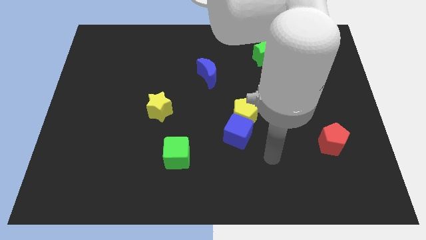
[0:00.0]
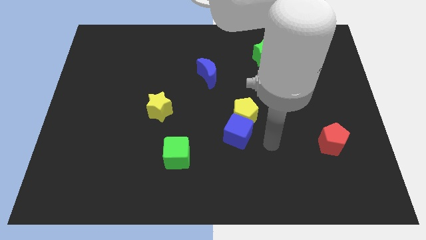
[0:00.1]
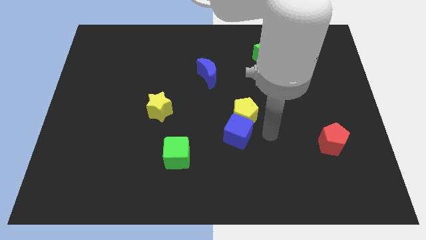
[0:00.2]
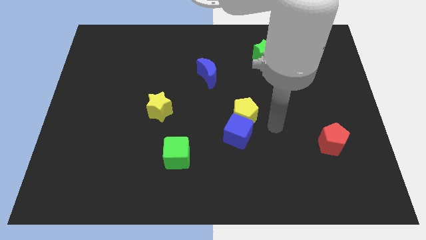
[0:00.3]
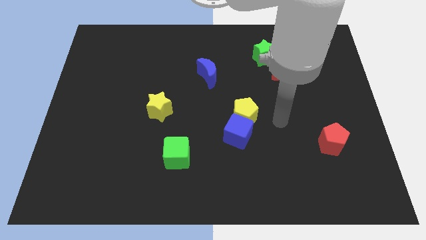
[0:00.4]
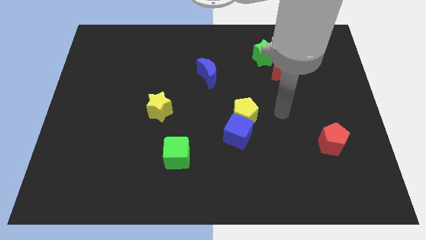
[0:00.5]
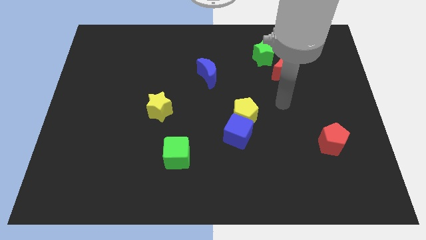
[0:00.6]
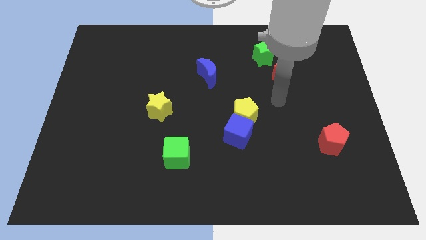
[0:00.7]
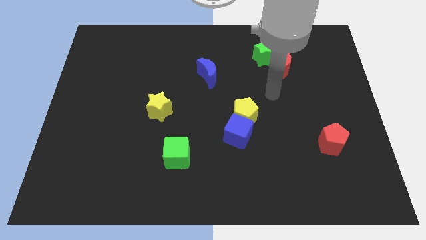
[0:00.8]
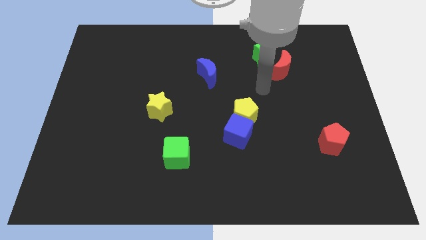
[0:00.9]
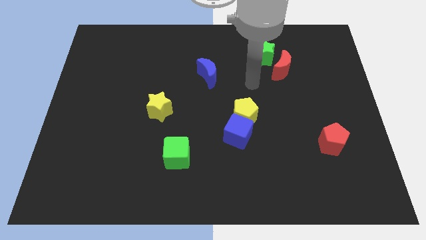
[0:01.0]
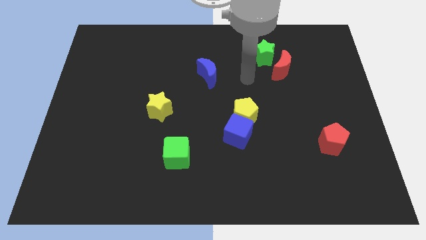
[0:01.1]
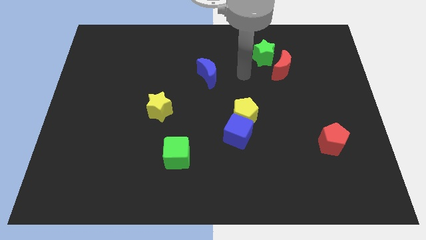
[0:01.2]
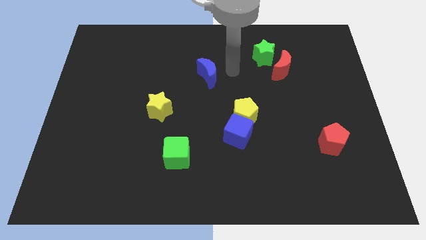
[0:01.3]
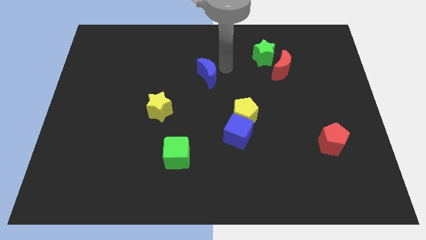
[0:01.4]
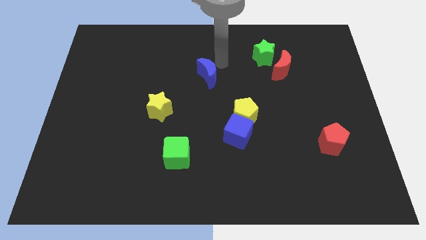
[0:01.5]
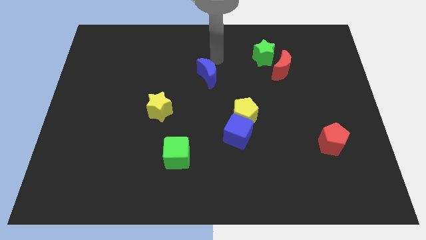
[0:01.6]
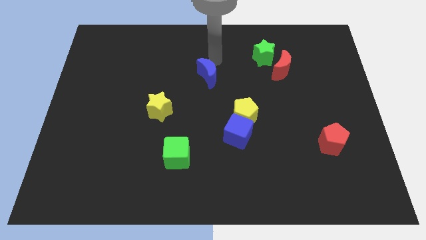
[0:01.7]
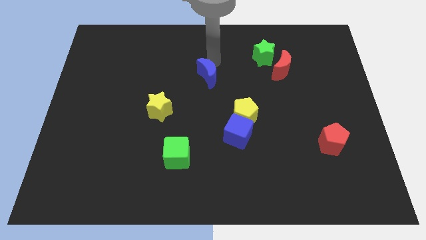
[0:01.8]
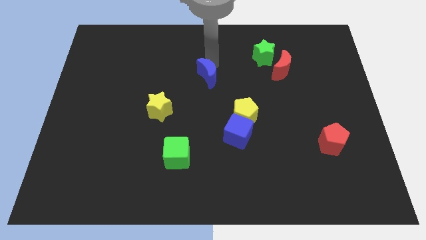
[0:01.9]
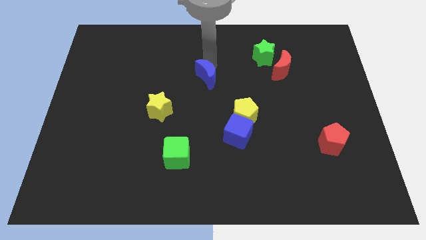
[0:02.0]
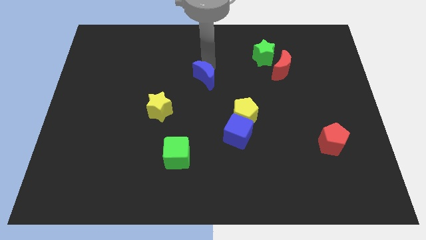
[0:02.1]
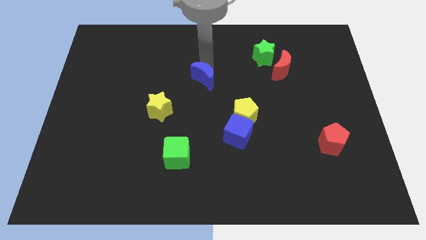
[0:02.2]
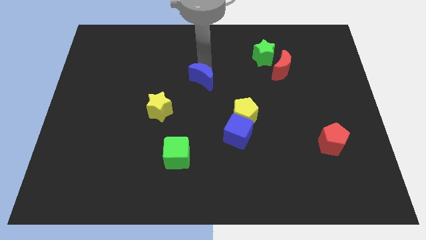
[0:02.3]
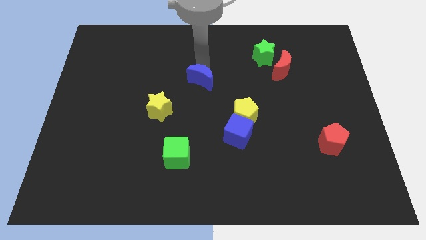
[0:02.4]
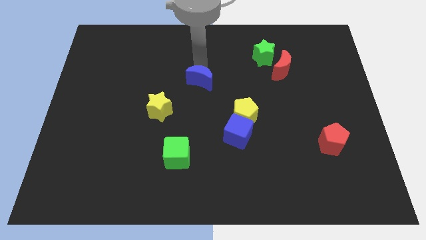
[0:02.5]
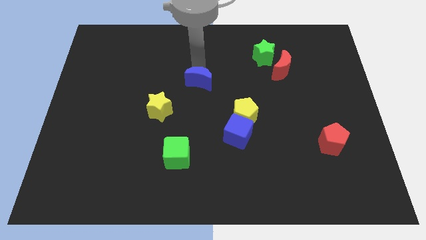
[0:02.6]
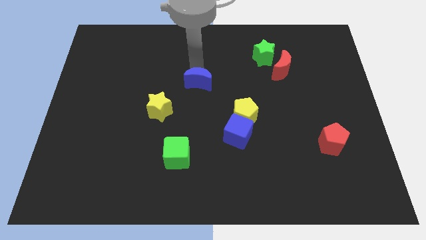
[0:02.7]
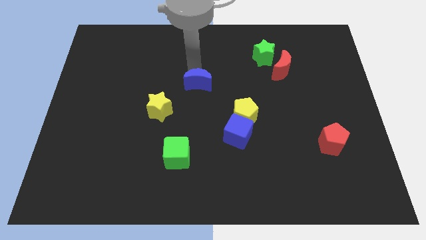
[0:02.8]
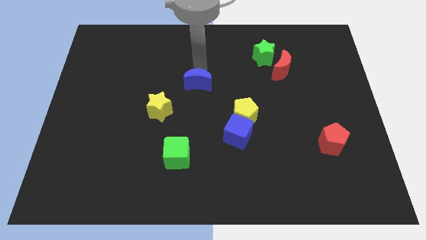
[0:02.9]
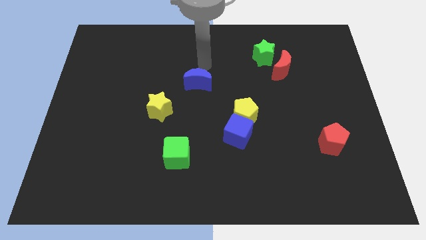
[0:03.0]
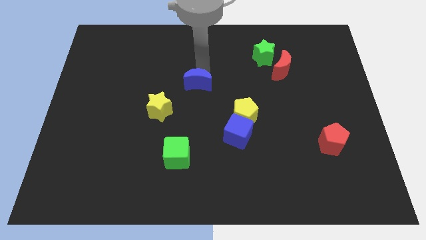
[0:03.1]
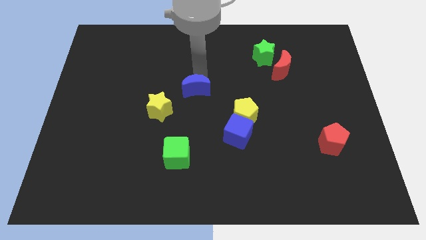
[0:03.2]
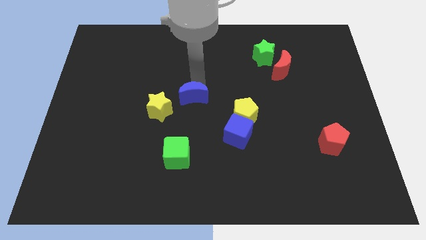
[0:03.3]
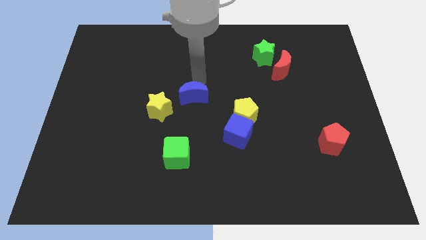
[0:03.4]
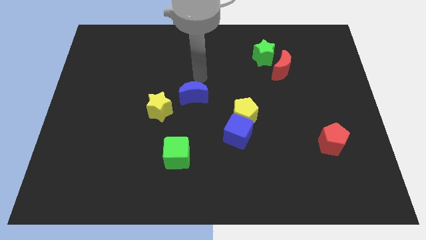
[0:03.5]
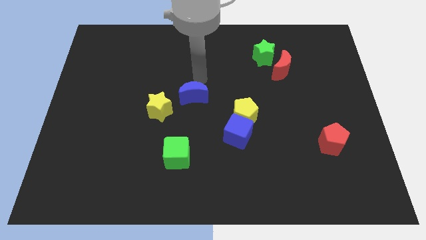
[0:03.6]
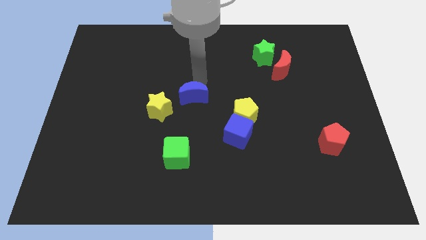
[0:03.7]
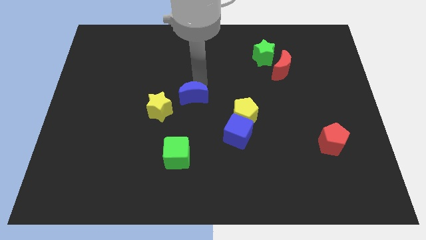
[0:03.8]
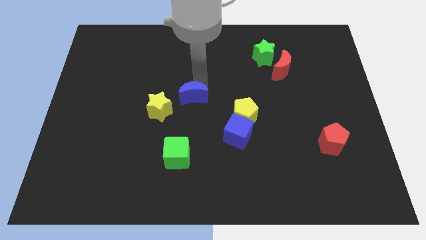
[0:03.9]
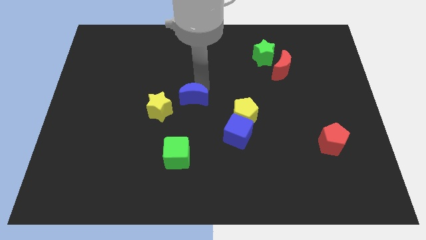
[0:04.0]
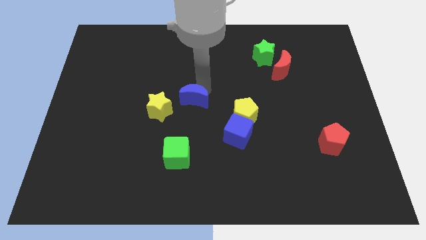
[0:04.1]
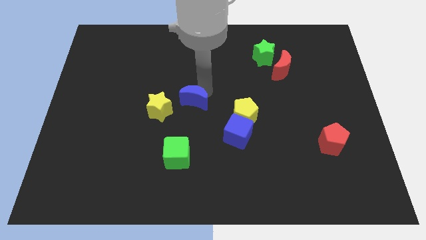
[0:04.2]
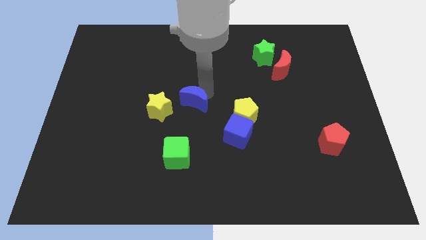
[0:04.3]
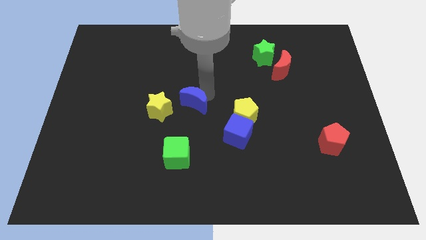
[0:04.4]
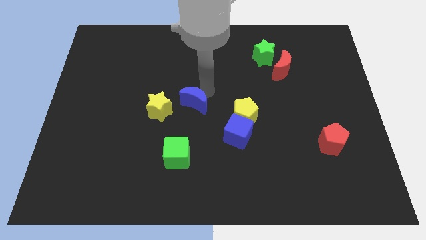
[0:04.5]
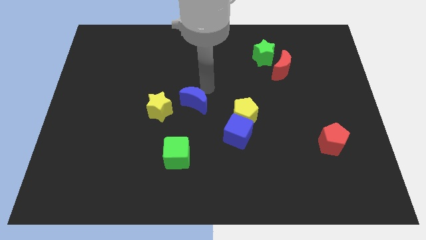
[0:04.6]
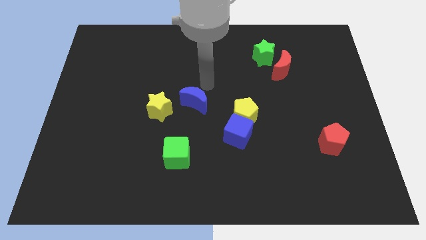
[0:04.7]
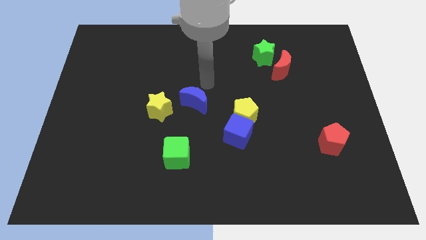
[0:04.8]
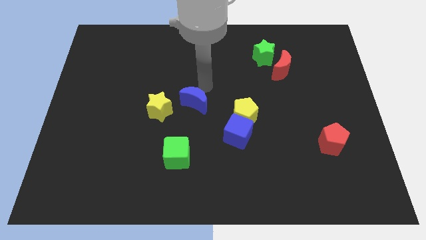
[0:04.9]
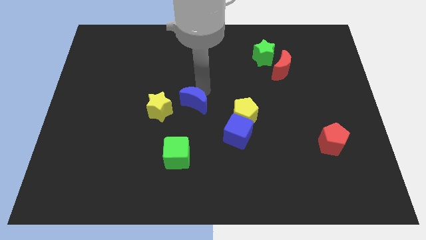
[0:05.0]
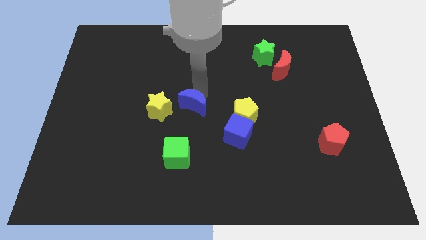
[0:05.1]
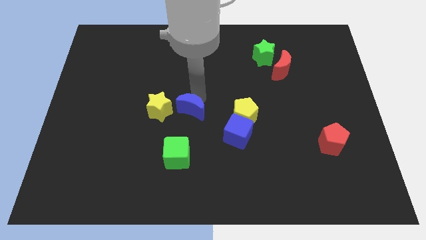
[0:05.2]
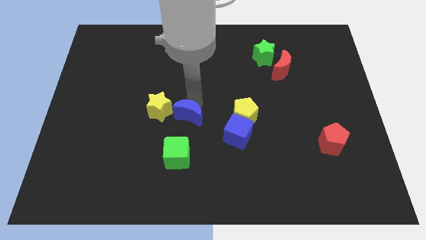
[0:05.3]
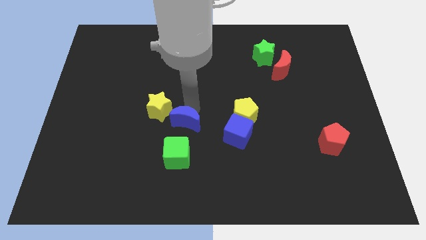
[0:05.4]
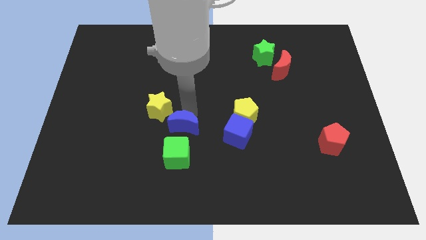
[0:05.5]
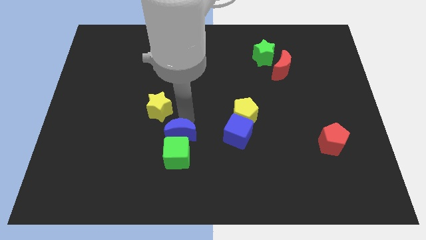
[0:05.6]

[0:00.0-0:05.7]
push the blue moon next to the green cube

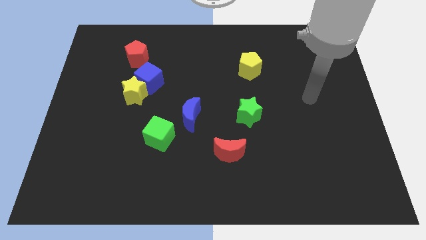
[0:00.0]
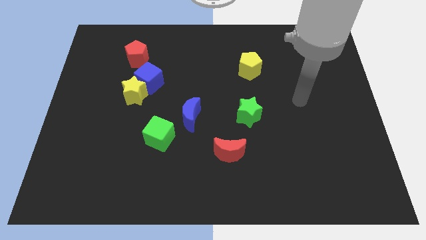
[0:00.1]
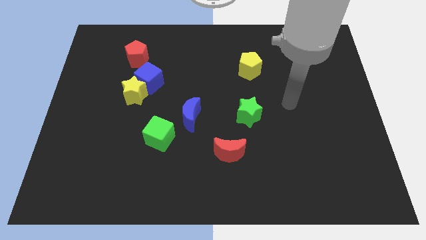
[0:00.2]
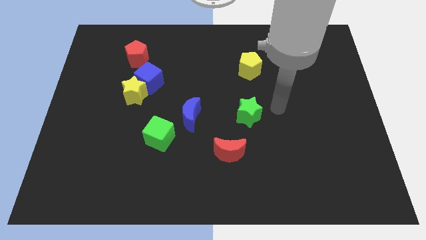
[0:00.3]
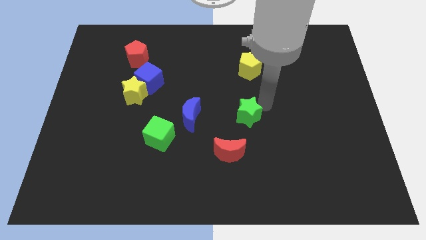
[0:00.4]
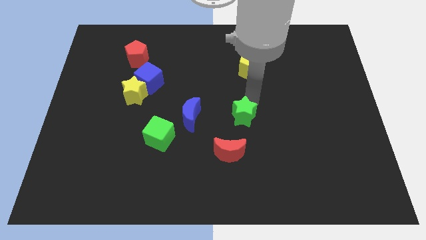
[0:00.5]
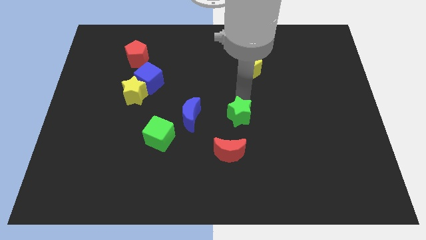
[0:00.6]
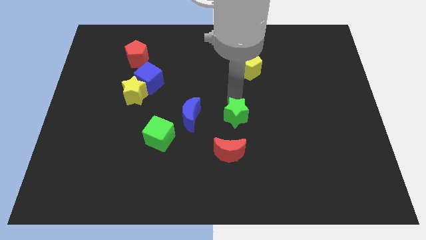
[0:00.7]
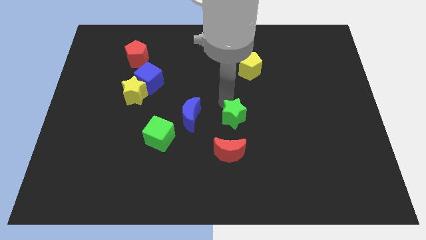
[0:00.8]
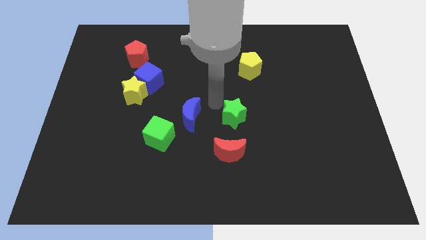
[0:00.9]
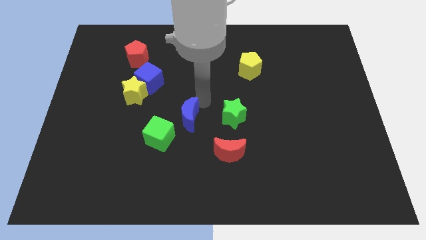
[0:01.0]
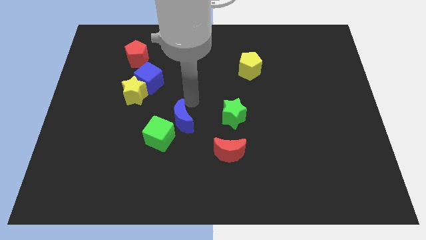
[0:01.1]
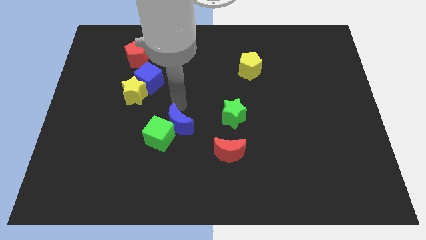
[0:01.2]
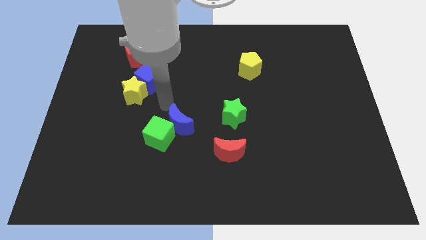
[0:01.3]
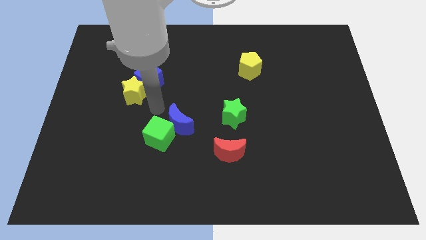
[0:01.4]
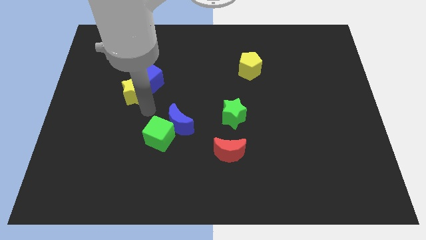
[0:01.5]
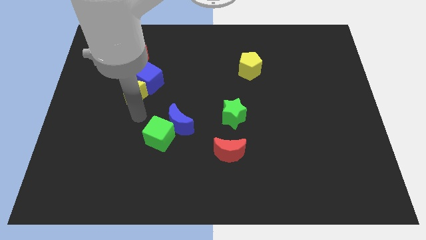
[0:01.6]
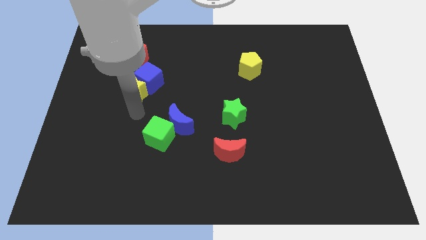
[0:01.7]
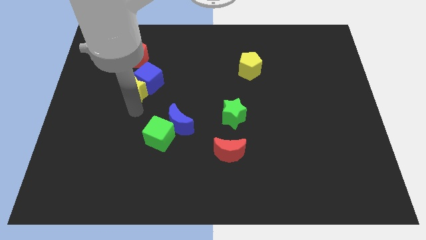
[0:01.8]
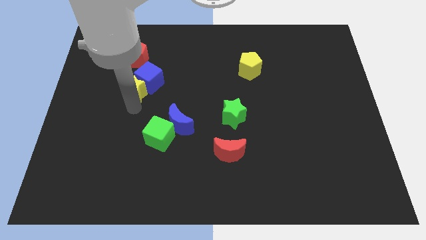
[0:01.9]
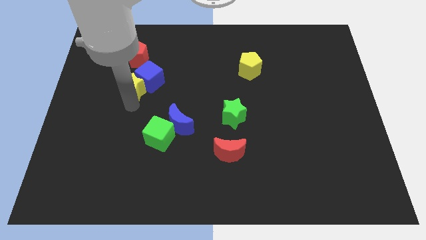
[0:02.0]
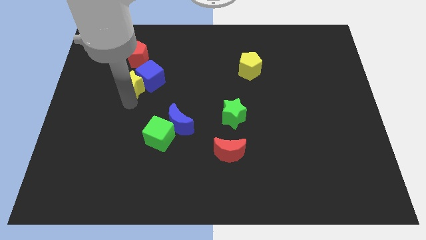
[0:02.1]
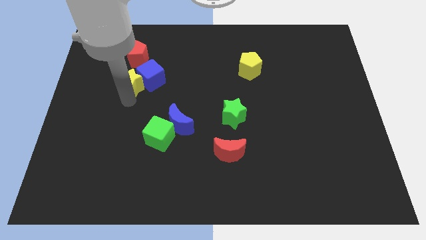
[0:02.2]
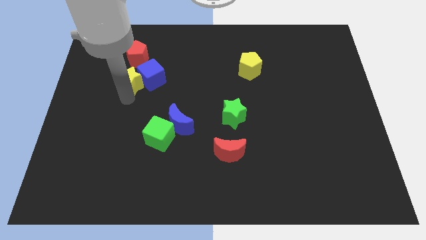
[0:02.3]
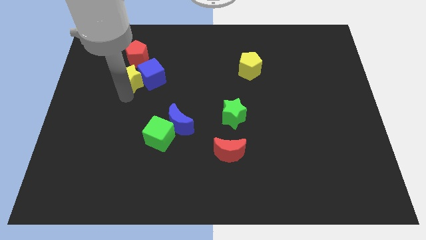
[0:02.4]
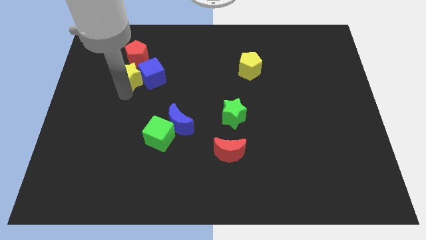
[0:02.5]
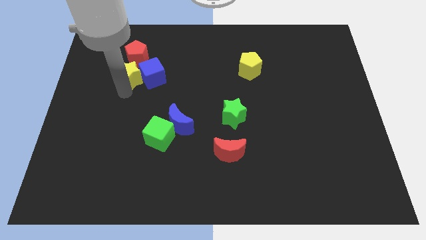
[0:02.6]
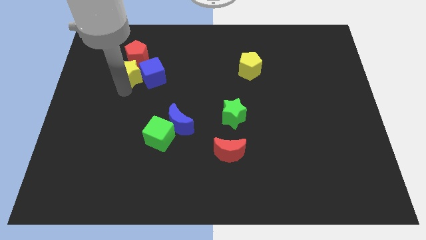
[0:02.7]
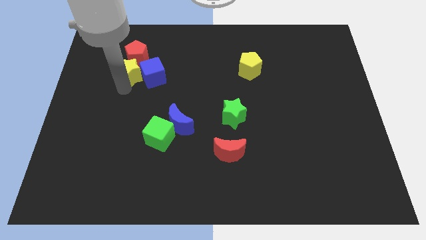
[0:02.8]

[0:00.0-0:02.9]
push the yellow star next to the red pentagon
